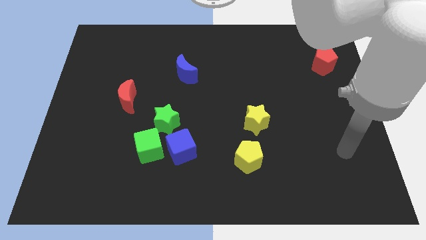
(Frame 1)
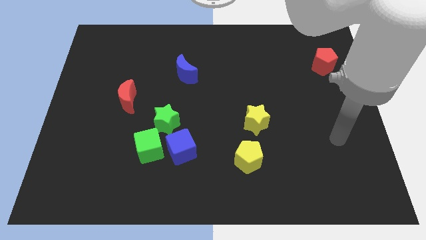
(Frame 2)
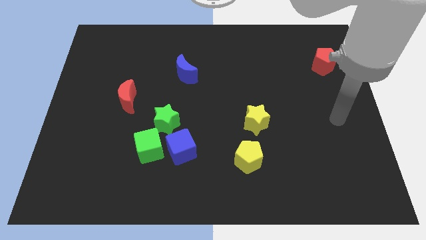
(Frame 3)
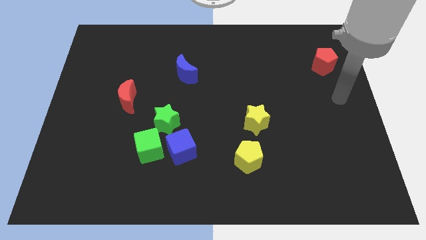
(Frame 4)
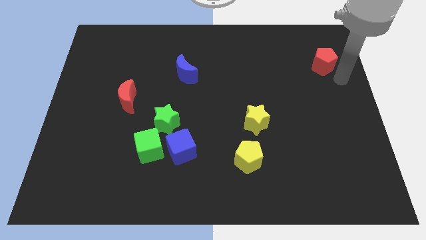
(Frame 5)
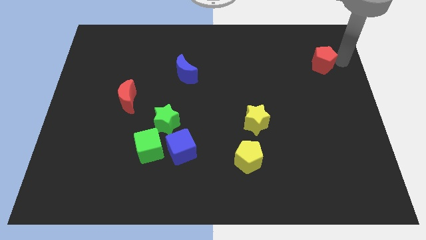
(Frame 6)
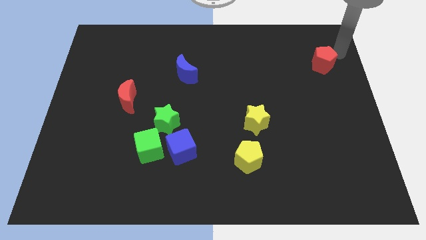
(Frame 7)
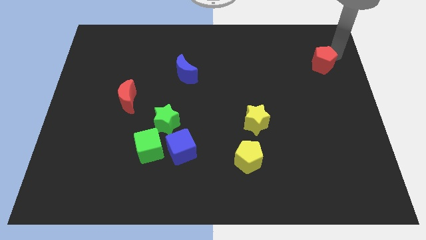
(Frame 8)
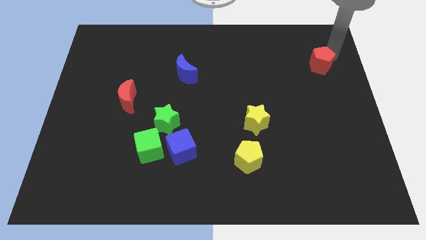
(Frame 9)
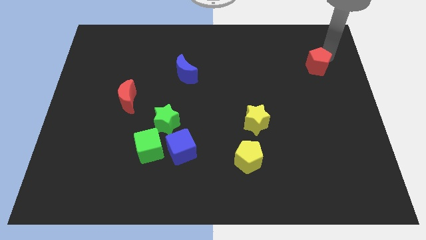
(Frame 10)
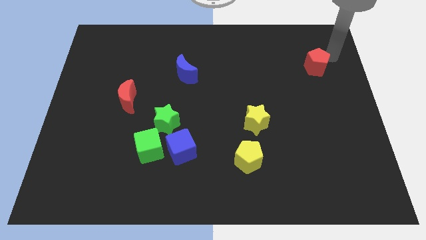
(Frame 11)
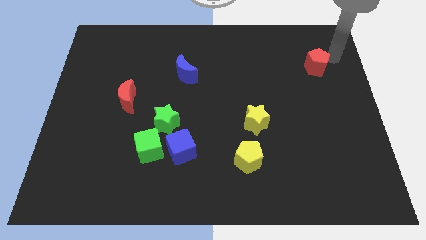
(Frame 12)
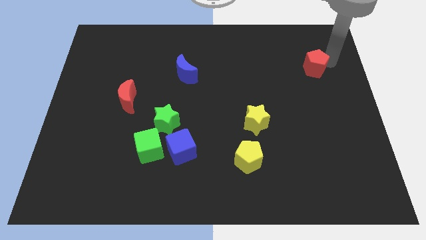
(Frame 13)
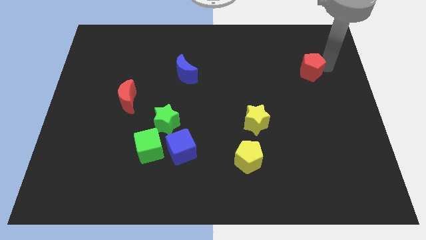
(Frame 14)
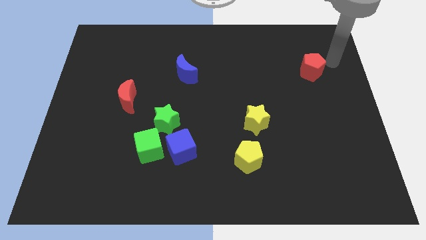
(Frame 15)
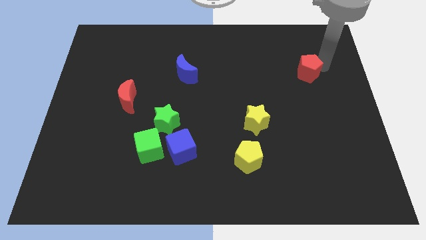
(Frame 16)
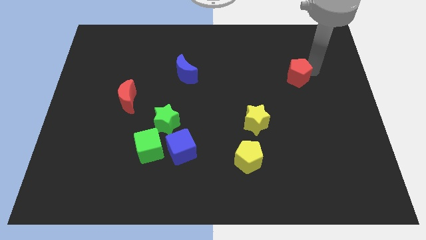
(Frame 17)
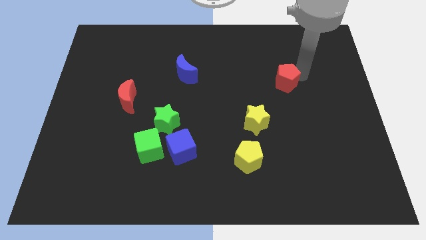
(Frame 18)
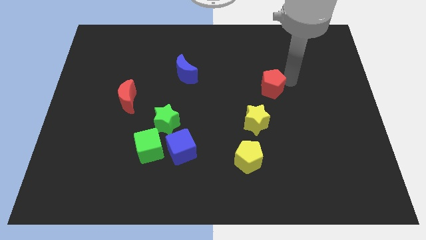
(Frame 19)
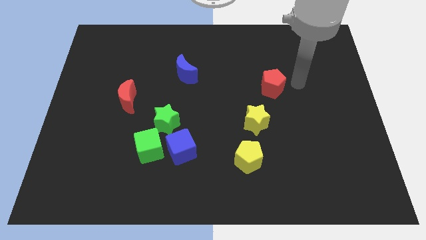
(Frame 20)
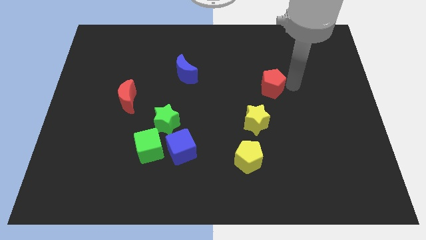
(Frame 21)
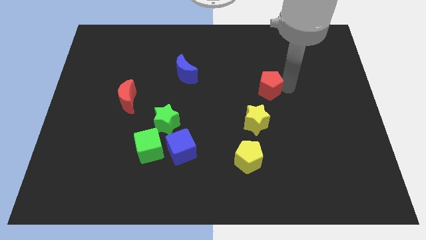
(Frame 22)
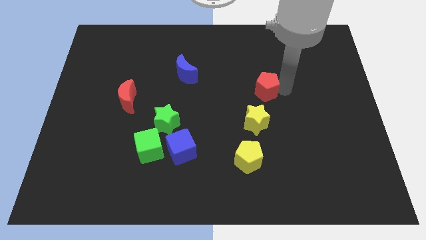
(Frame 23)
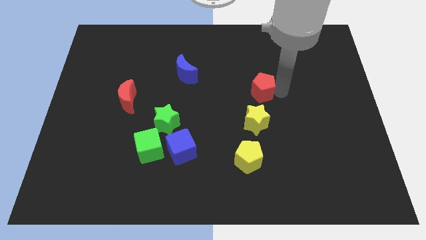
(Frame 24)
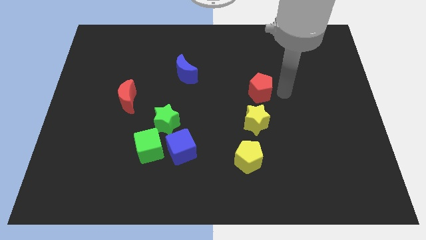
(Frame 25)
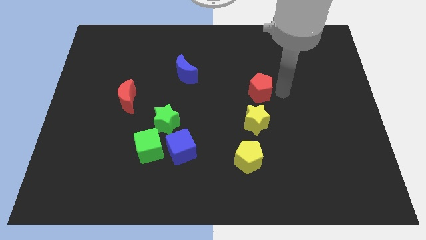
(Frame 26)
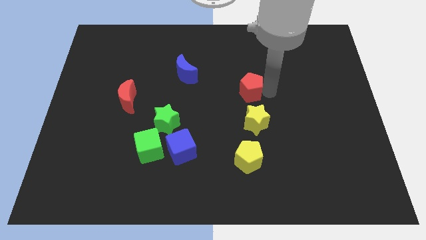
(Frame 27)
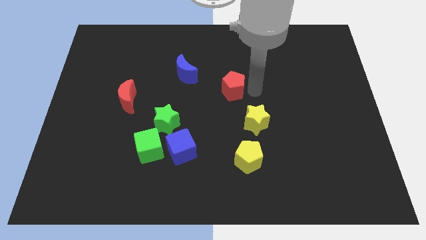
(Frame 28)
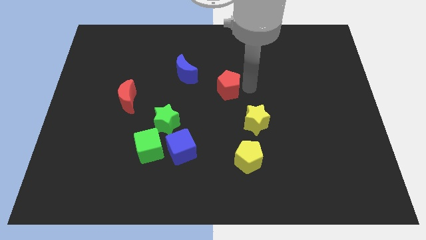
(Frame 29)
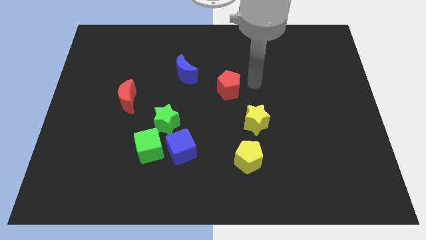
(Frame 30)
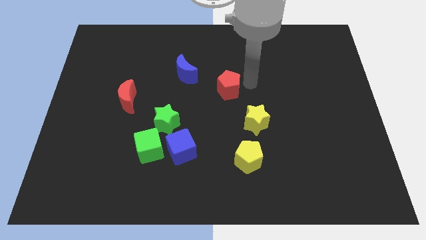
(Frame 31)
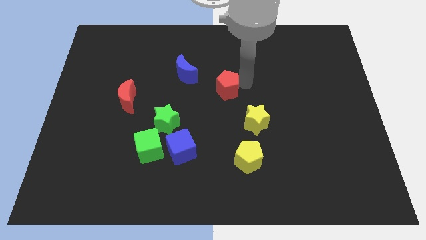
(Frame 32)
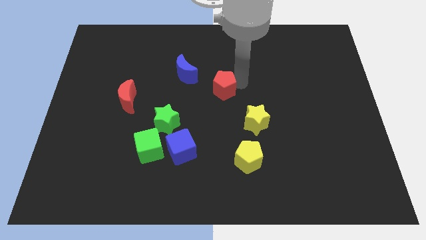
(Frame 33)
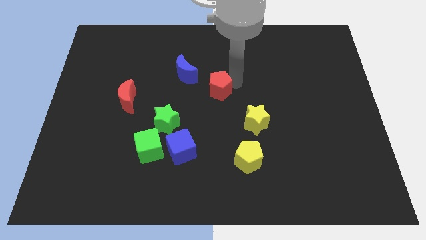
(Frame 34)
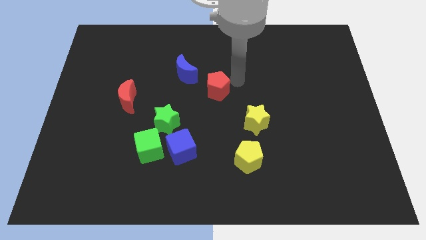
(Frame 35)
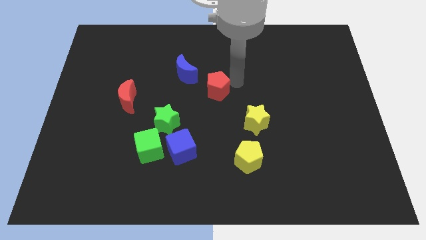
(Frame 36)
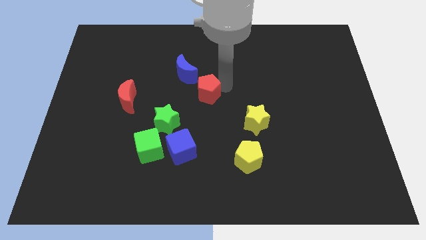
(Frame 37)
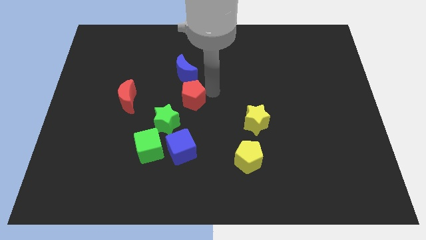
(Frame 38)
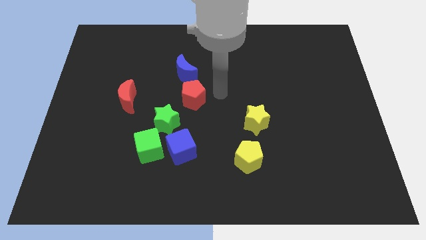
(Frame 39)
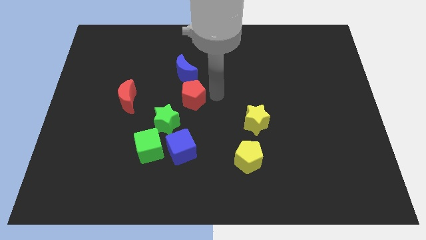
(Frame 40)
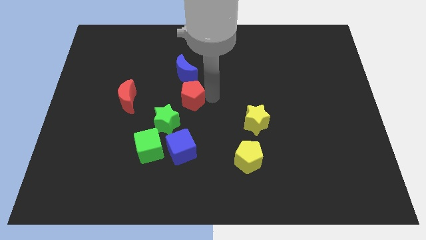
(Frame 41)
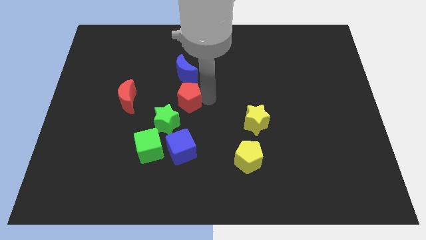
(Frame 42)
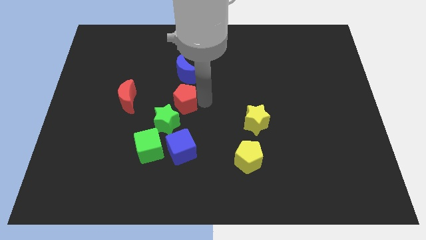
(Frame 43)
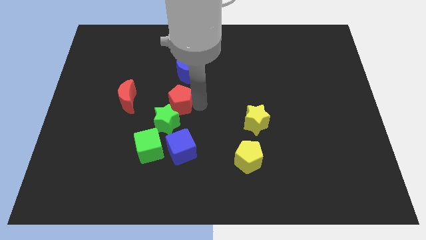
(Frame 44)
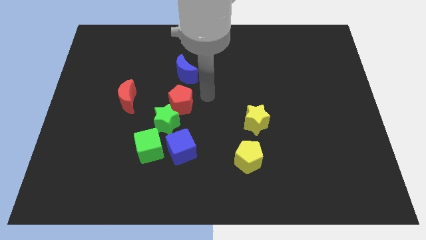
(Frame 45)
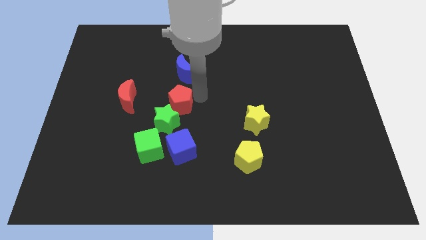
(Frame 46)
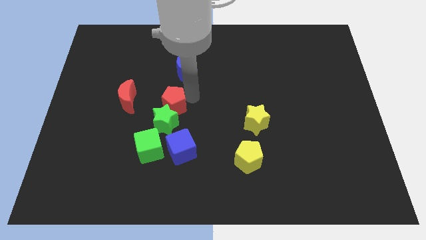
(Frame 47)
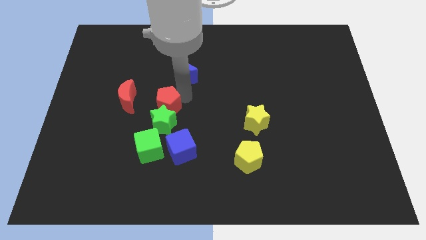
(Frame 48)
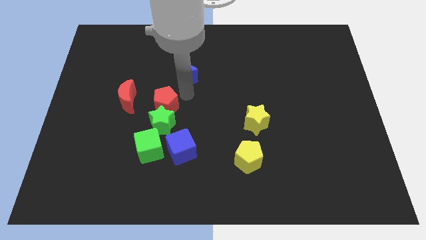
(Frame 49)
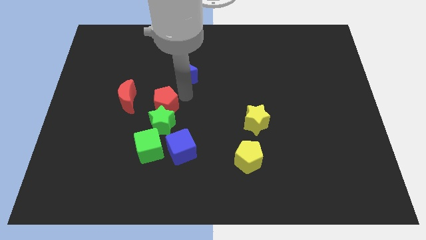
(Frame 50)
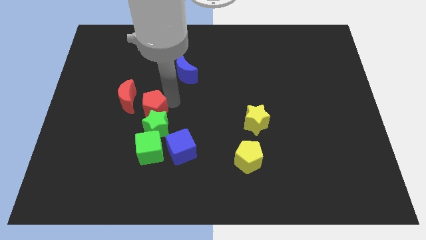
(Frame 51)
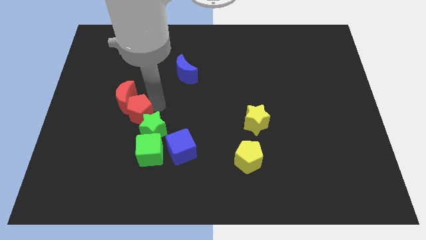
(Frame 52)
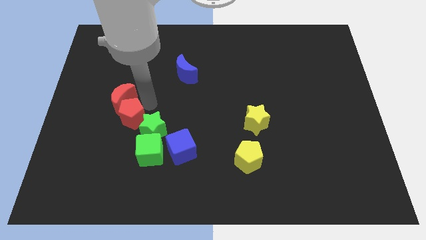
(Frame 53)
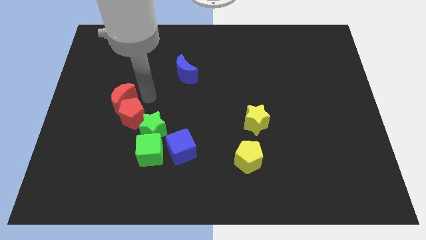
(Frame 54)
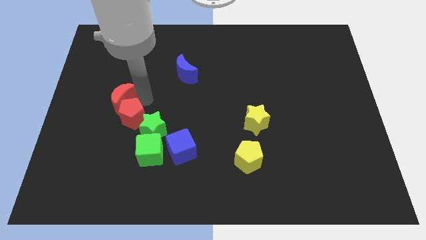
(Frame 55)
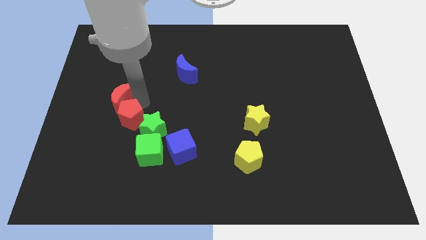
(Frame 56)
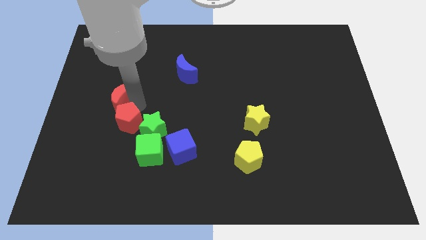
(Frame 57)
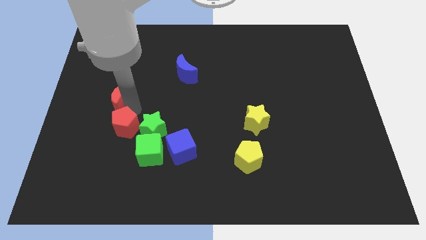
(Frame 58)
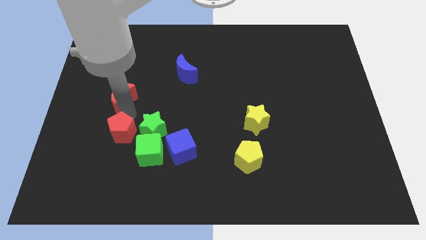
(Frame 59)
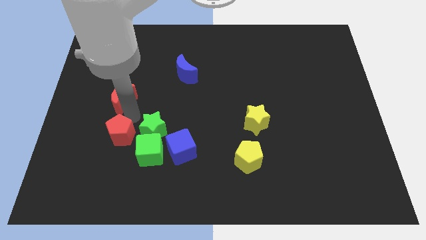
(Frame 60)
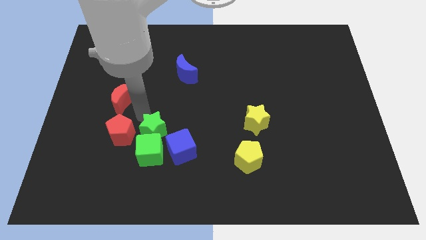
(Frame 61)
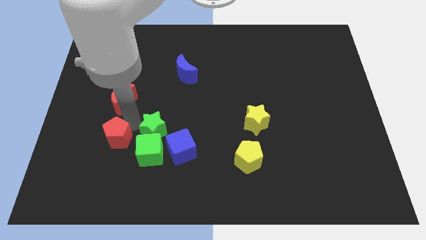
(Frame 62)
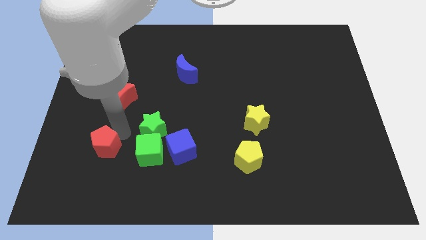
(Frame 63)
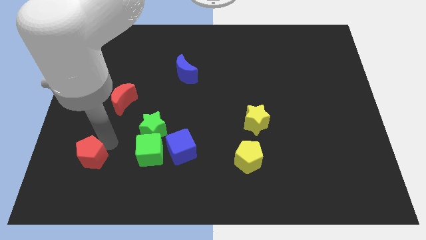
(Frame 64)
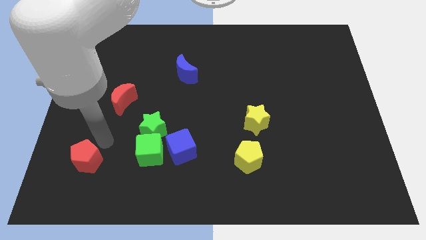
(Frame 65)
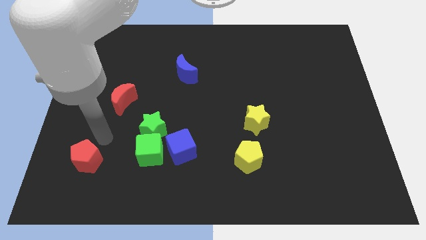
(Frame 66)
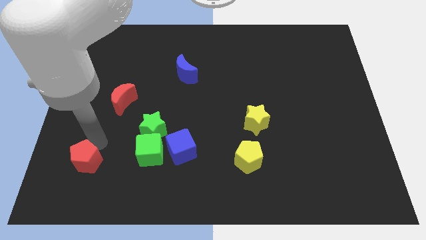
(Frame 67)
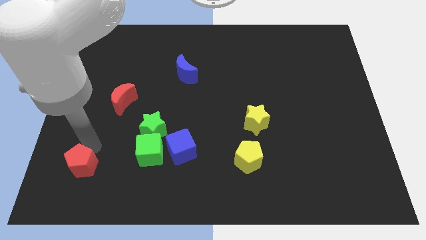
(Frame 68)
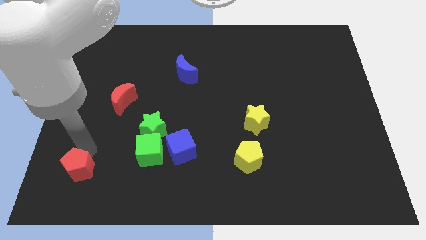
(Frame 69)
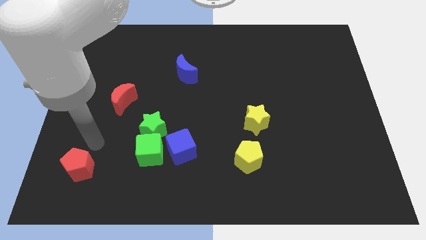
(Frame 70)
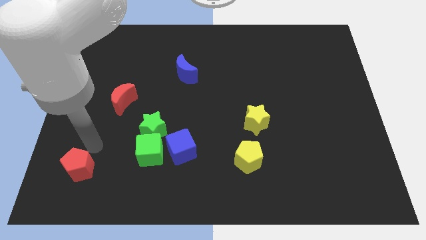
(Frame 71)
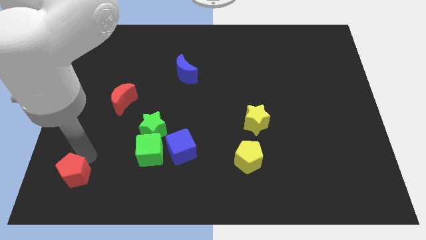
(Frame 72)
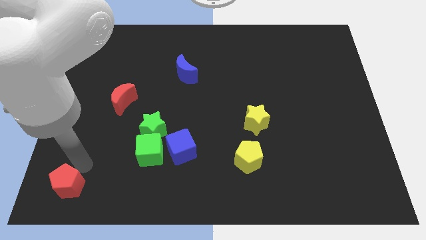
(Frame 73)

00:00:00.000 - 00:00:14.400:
slide the red pentagon to the bottom left of the board
